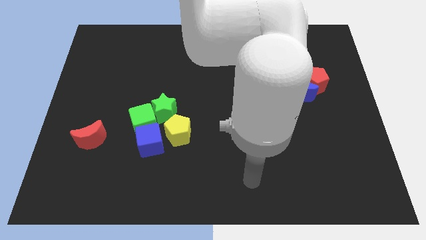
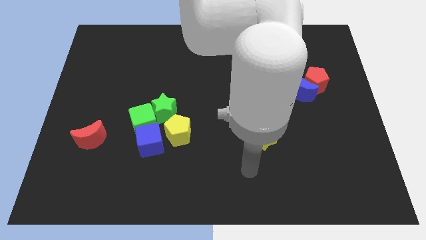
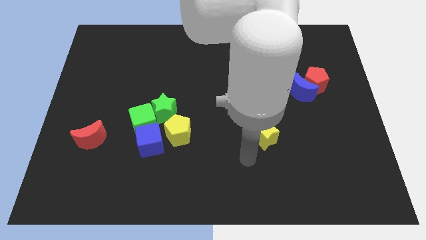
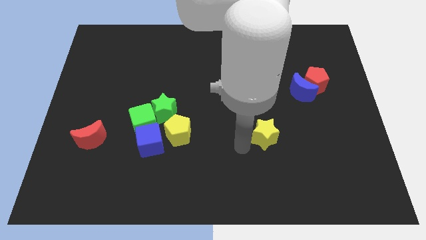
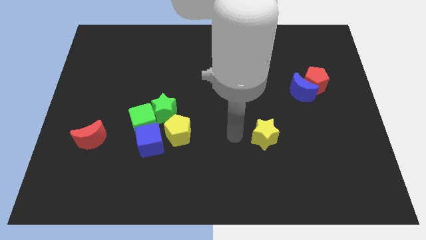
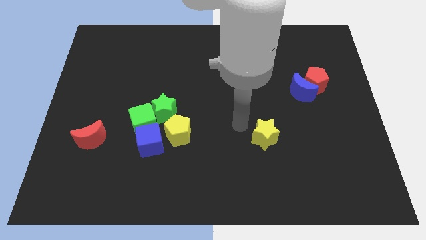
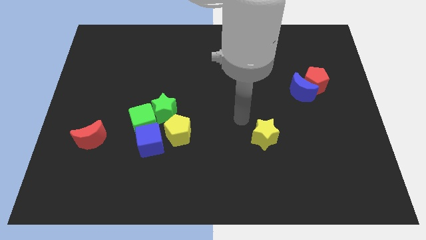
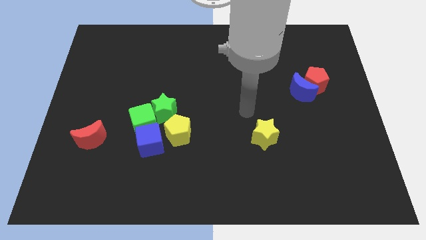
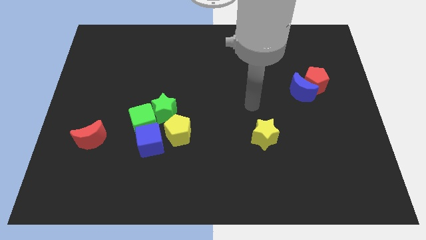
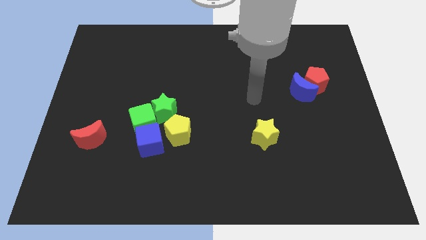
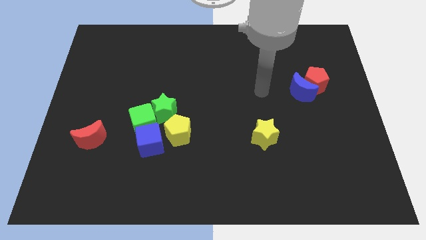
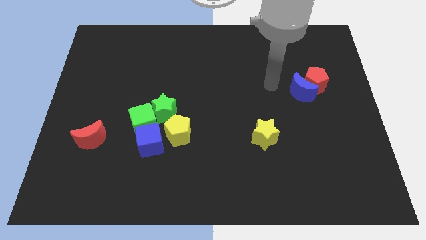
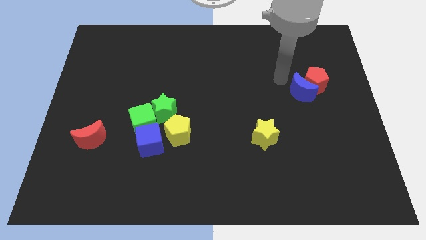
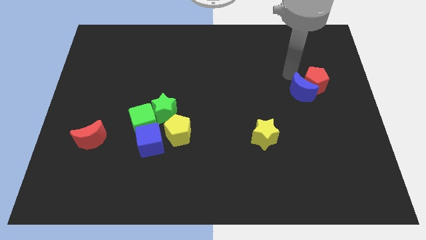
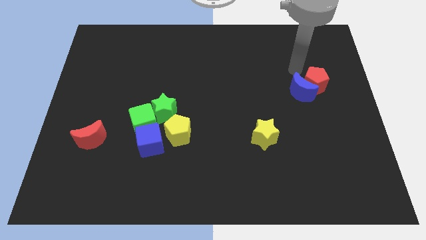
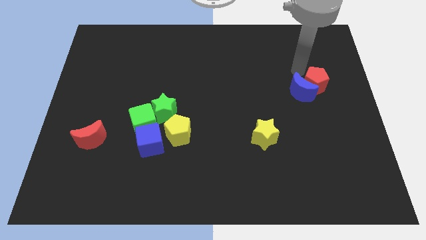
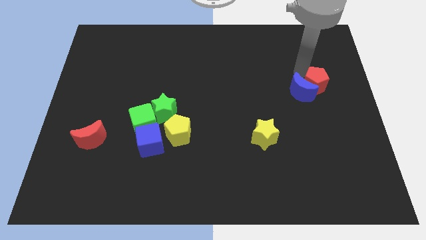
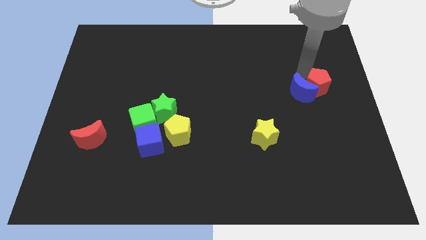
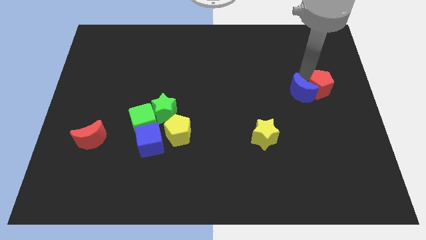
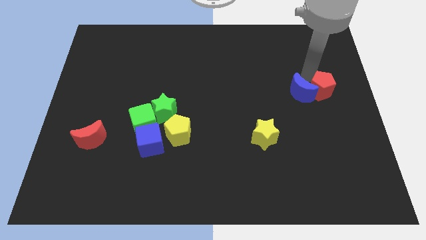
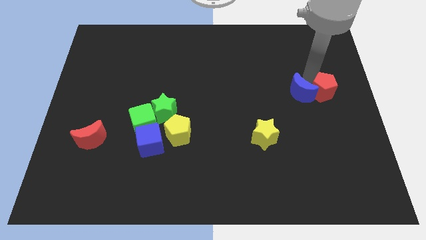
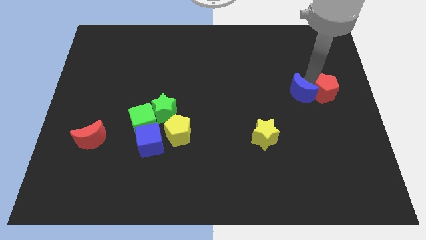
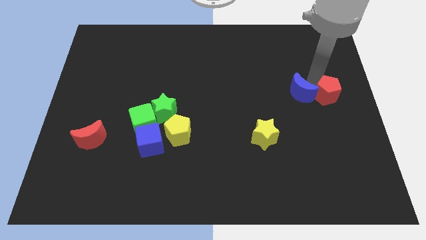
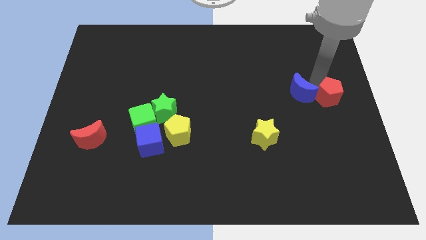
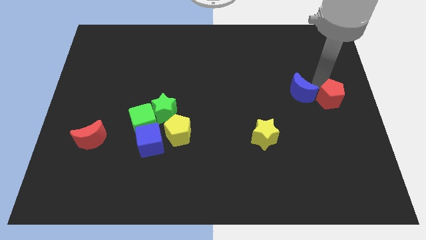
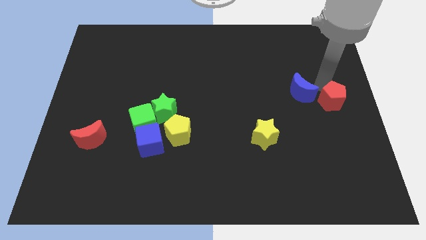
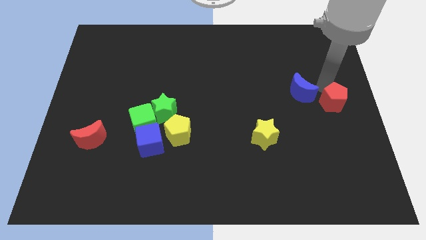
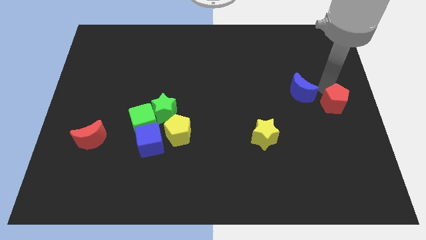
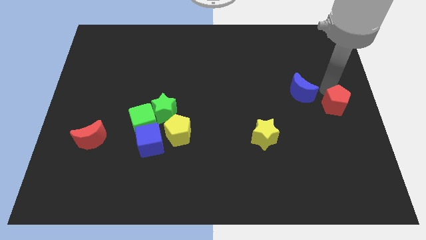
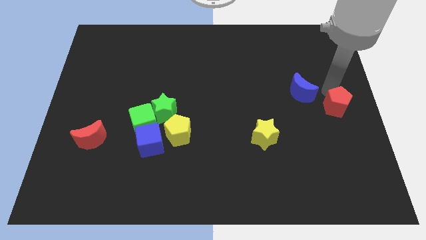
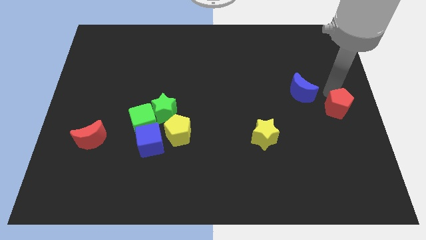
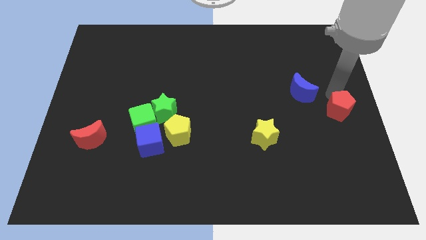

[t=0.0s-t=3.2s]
push the red pentagon slightly downwards

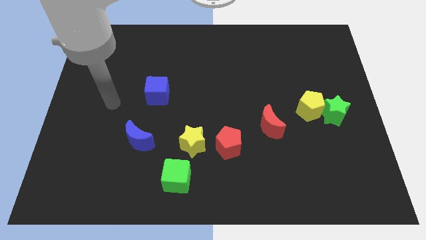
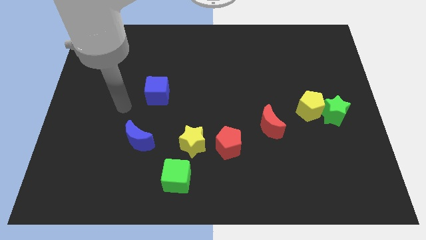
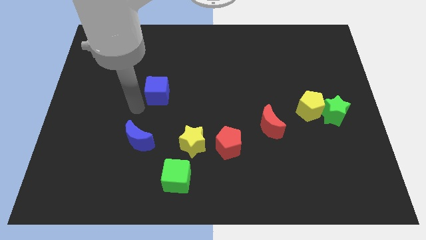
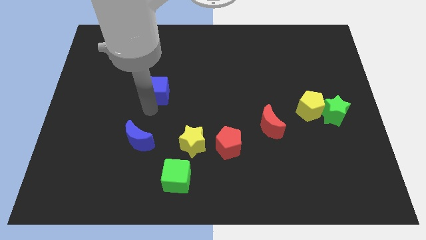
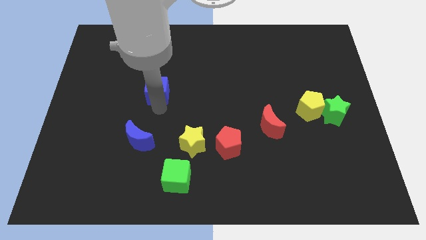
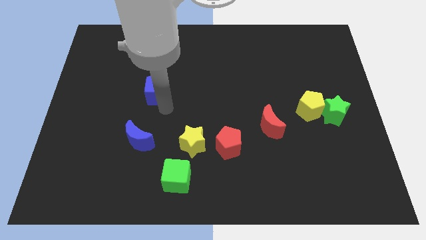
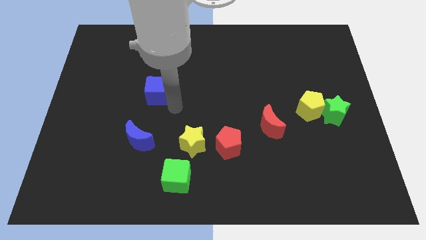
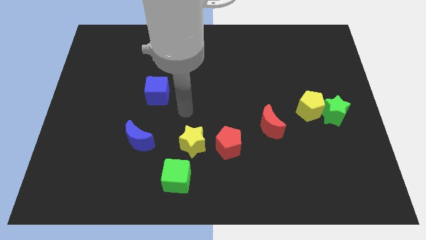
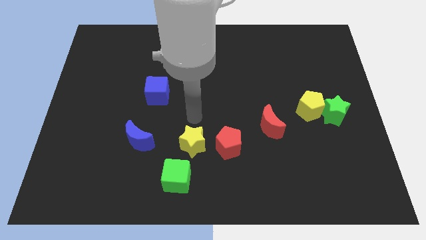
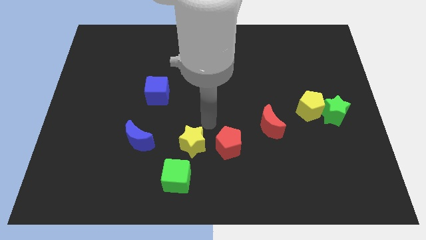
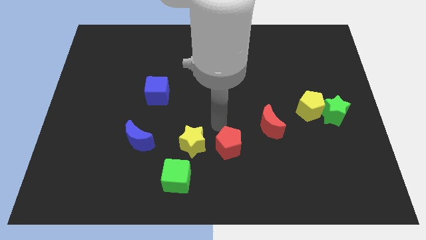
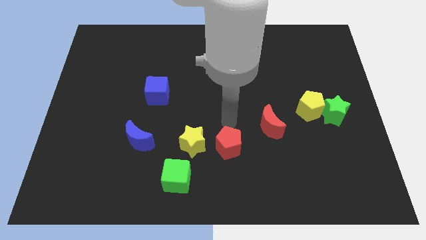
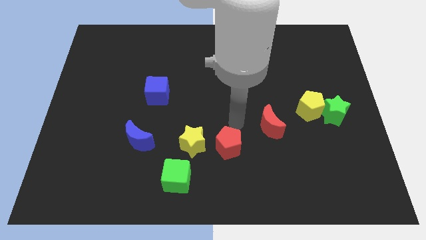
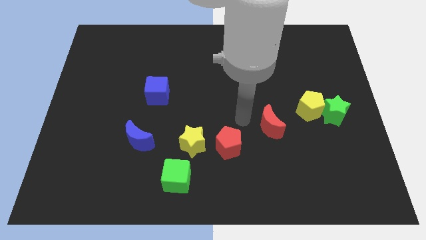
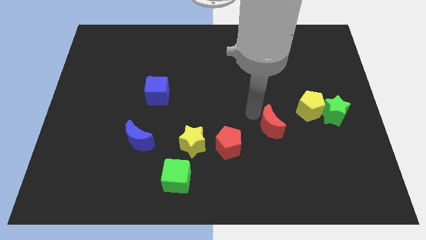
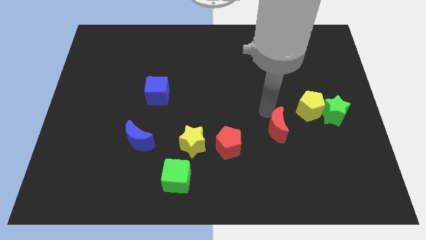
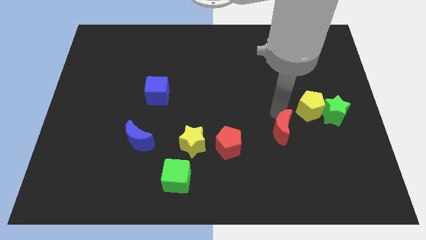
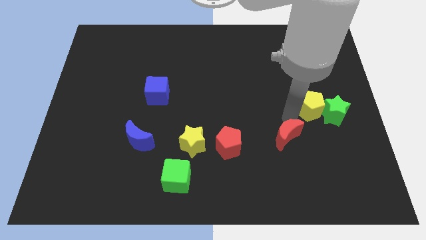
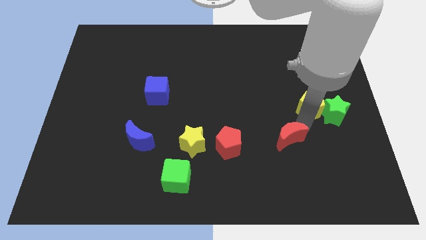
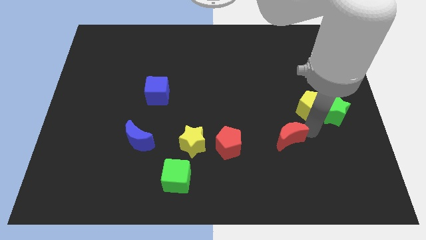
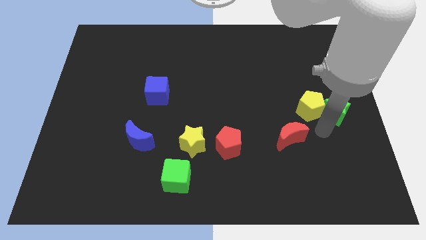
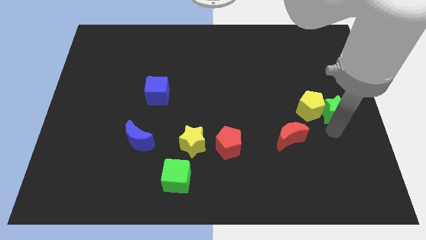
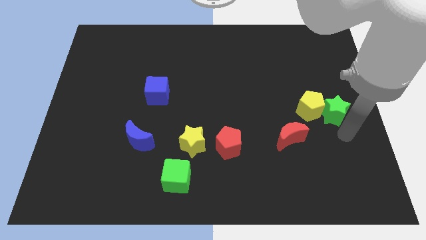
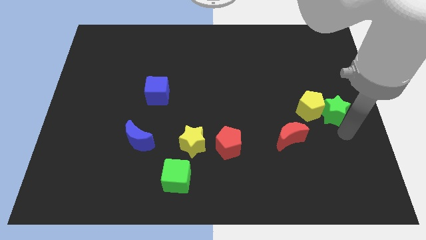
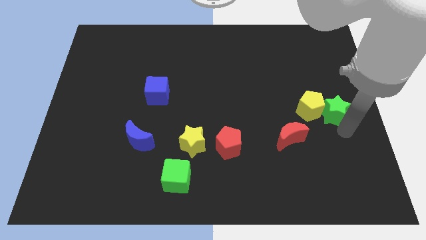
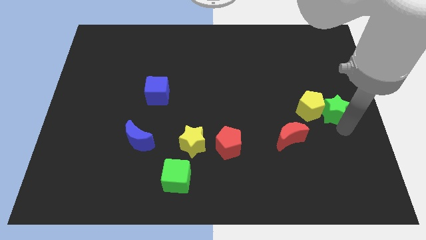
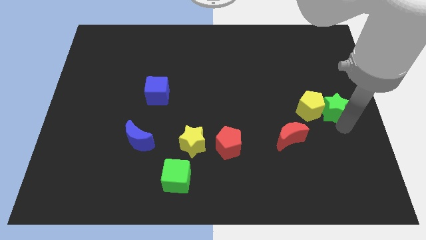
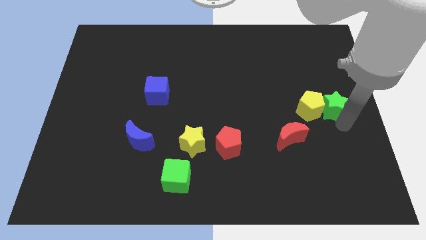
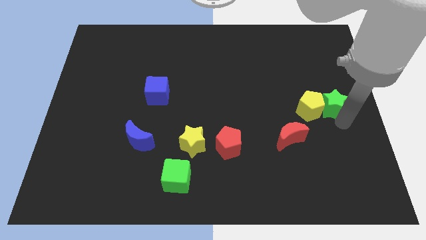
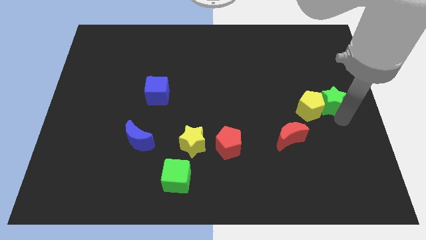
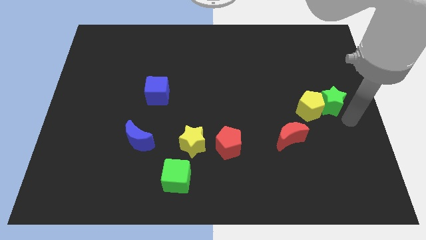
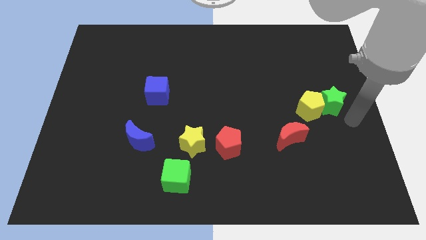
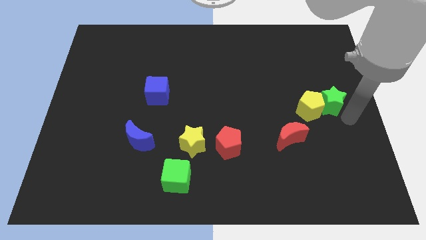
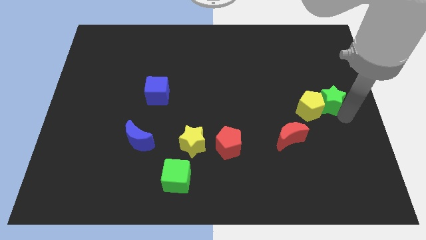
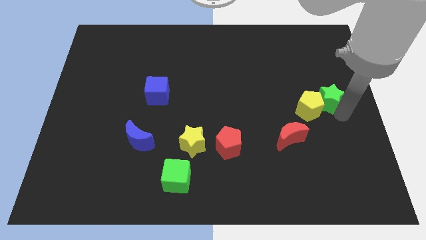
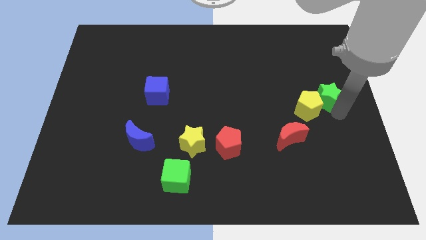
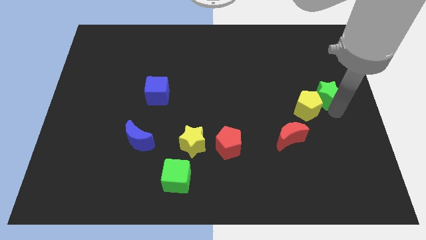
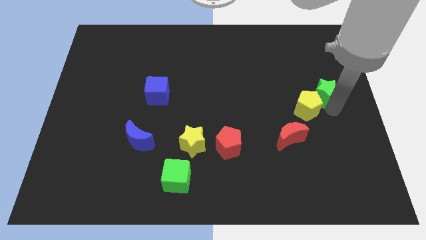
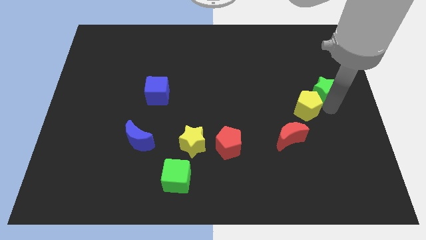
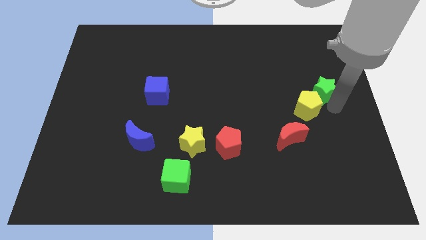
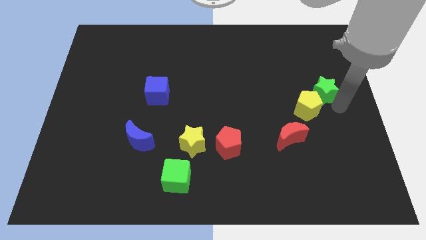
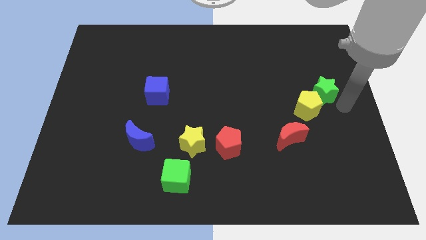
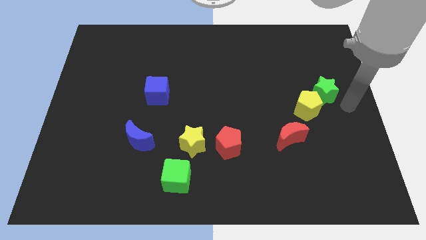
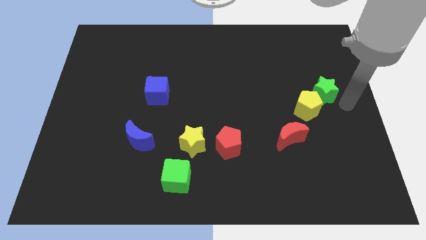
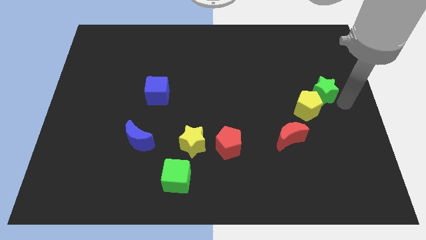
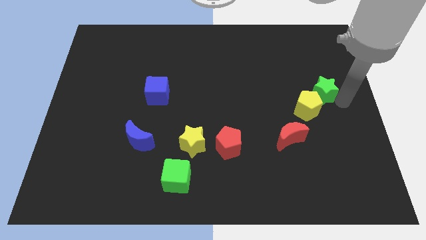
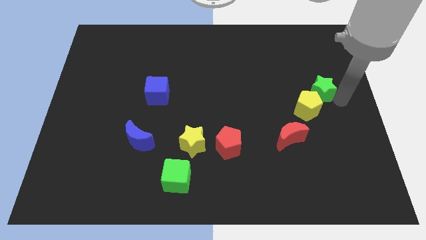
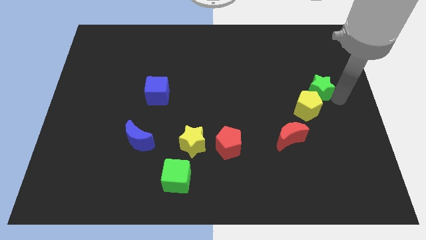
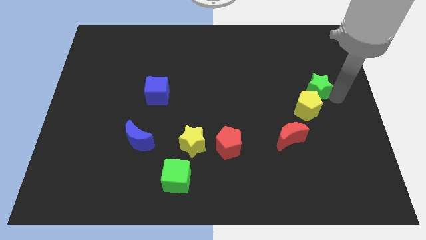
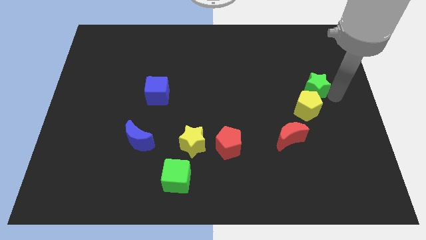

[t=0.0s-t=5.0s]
slide the green star a bit upwards and then to the left
